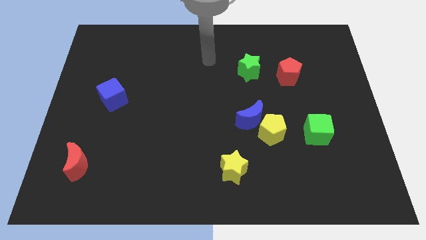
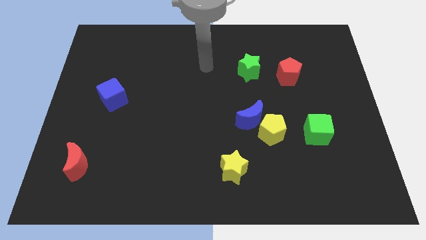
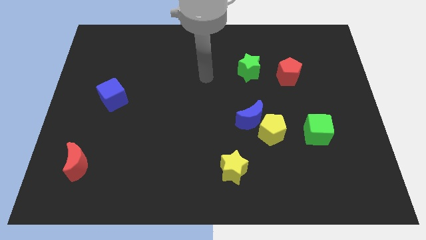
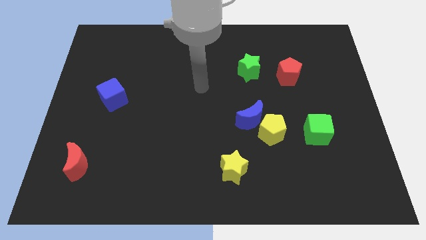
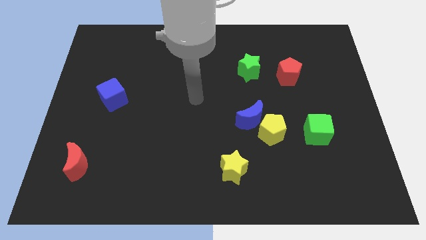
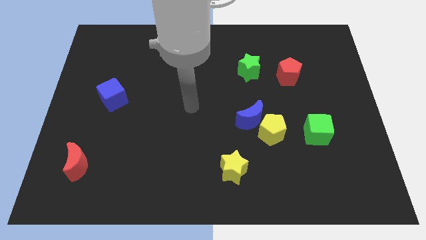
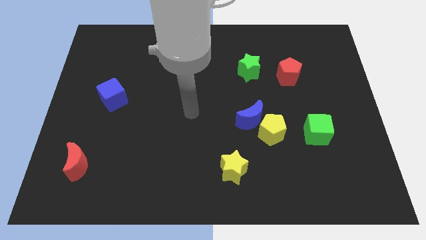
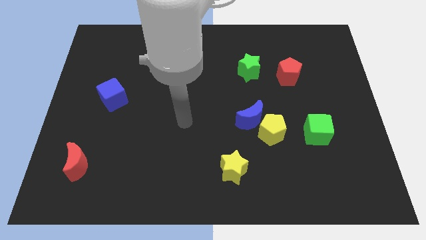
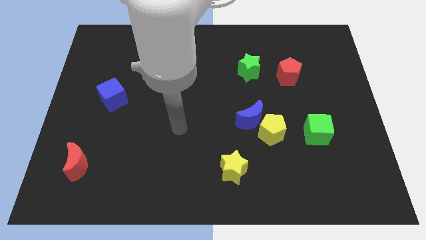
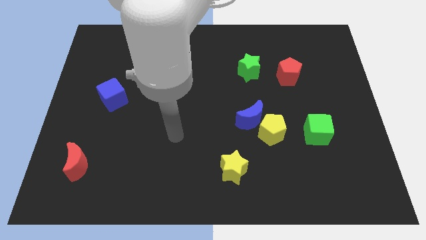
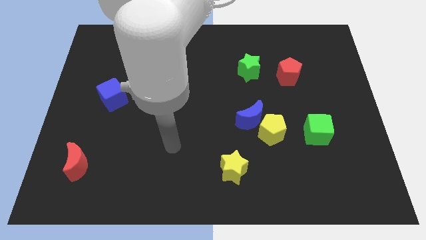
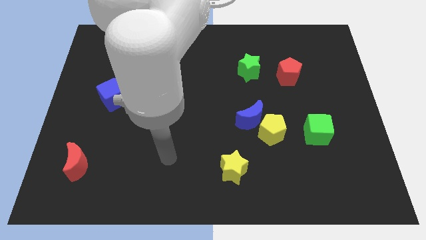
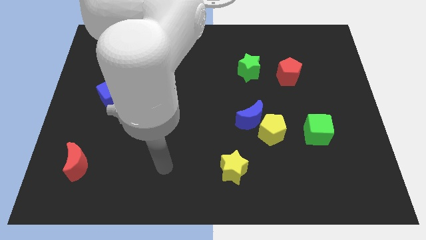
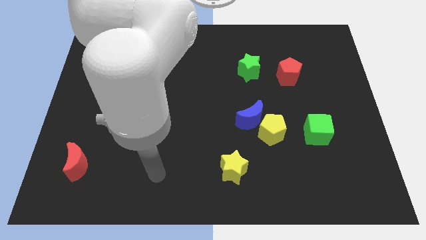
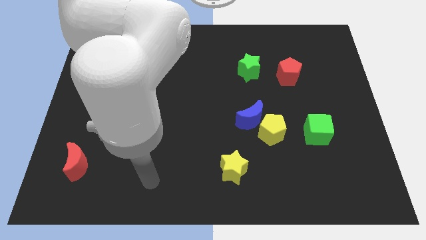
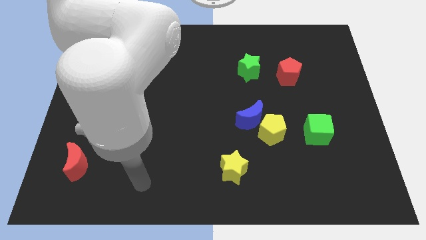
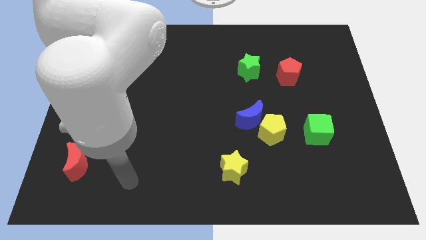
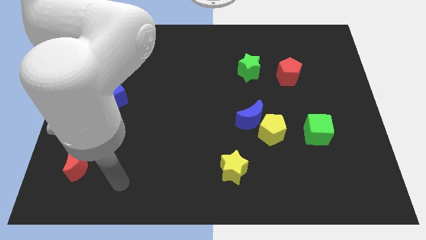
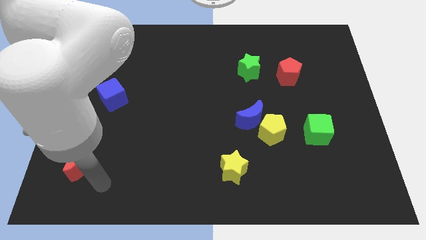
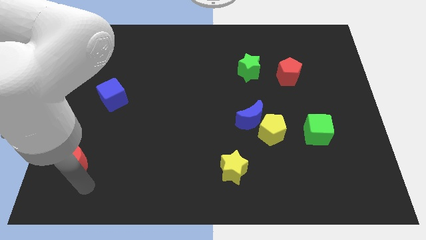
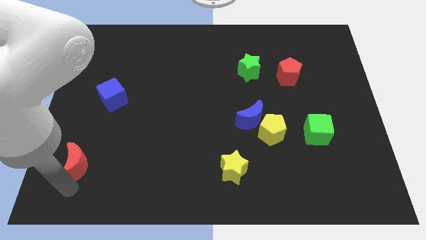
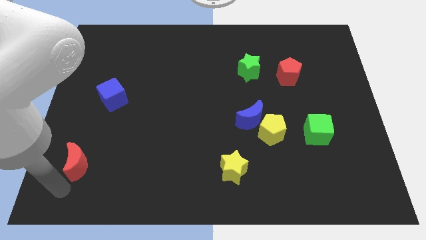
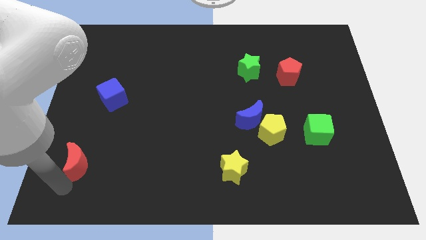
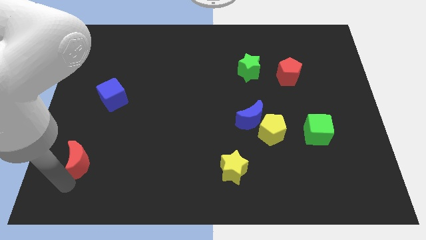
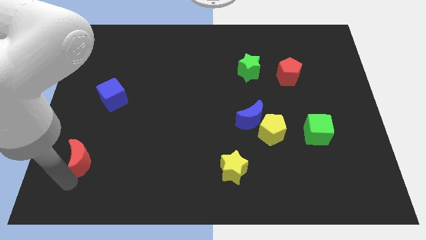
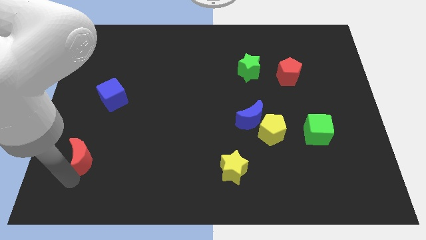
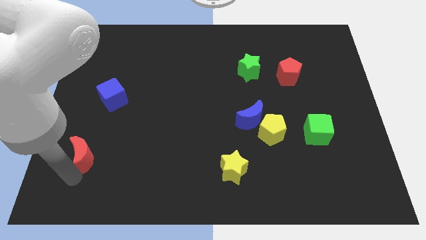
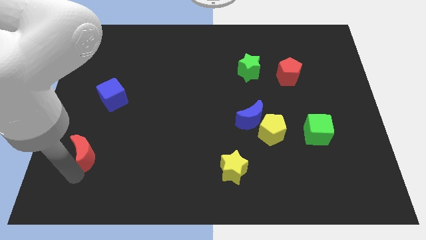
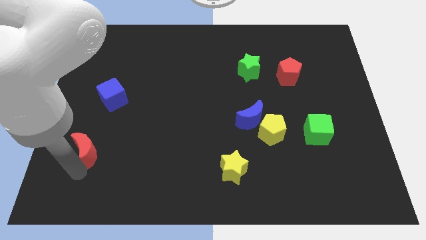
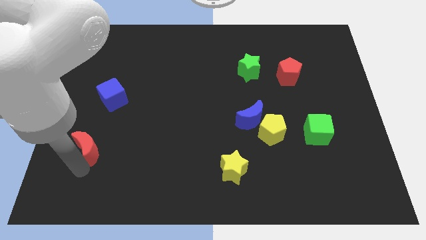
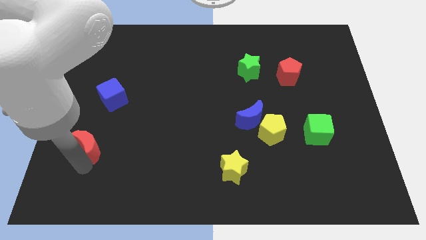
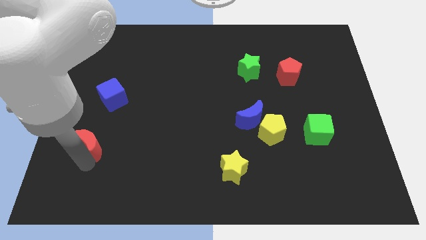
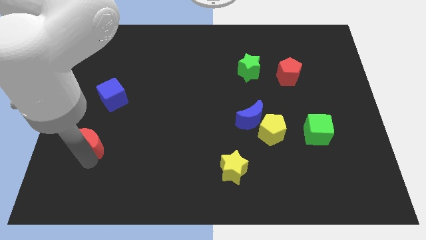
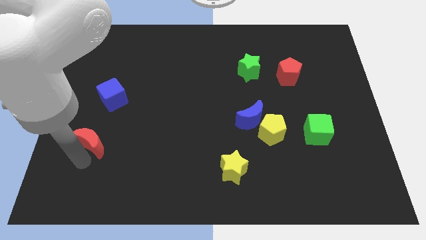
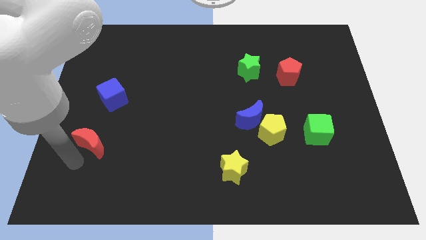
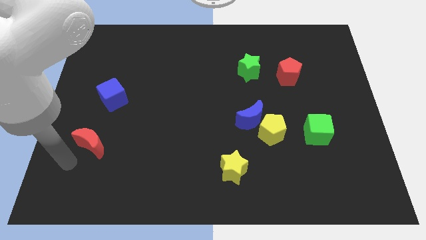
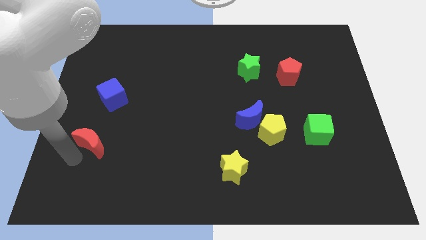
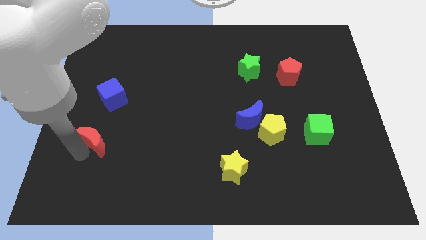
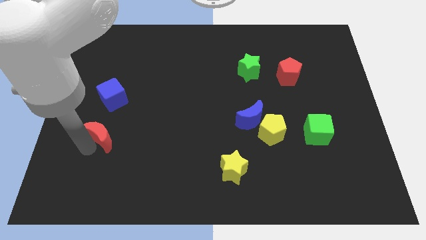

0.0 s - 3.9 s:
push the red moon slightly up and to the right diagonally

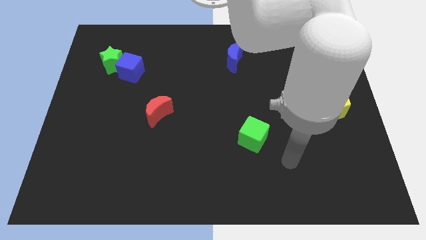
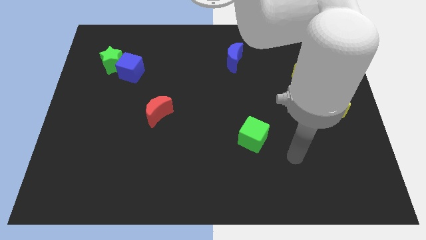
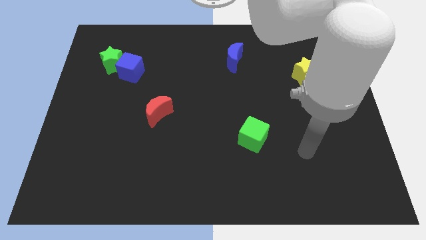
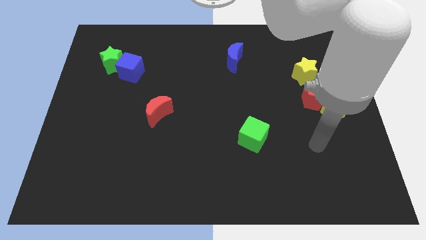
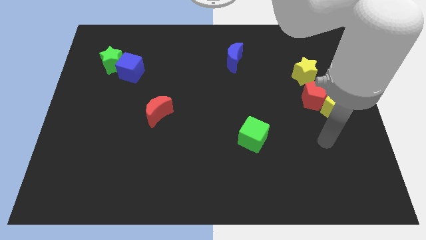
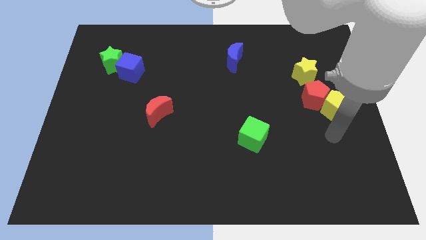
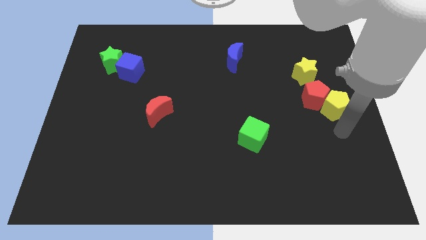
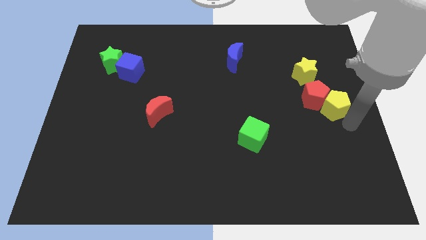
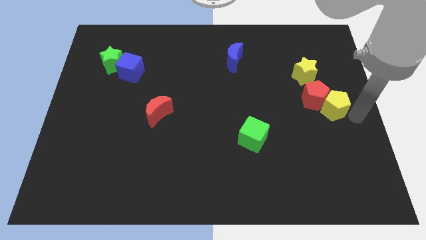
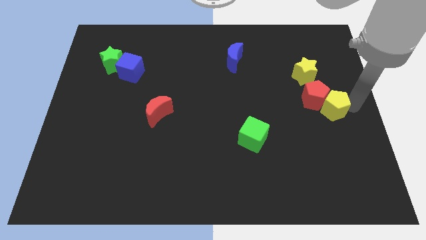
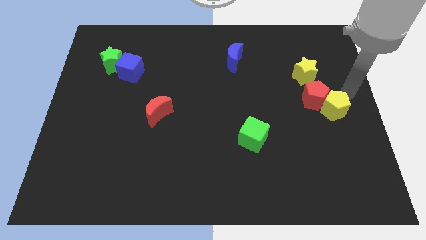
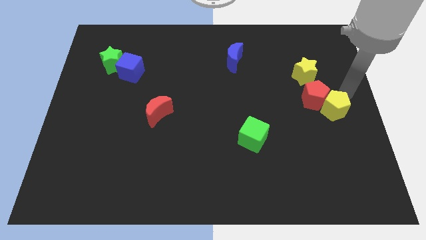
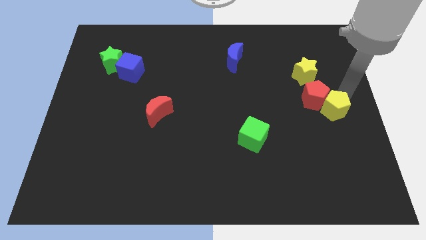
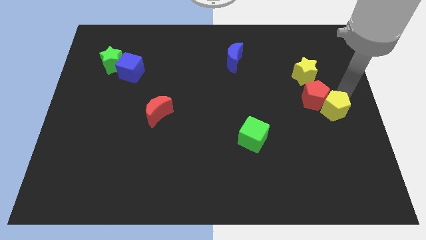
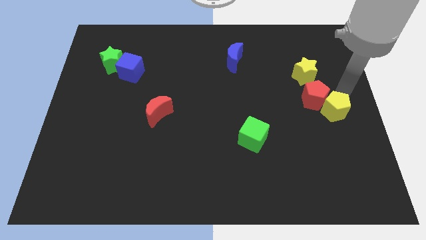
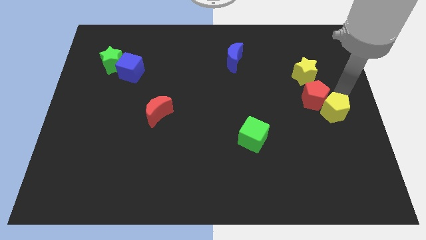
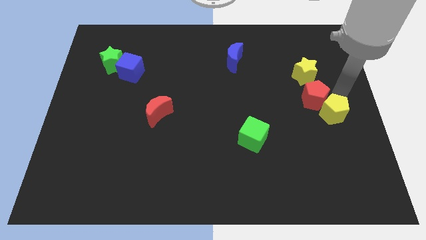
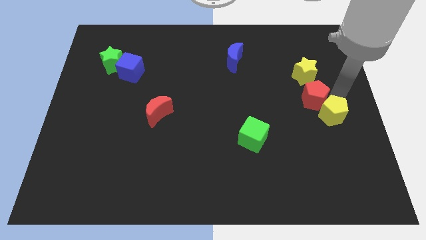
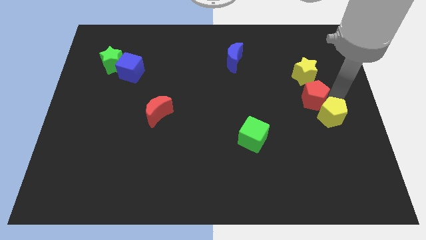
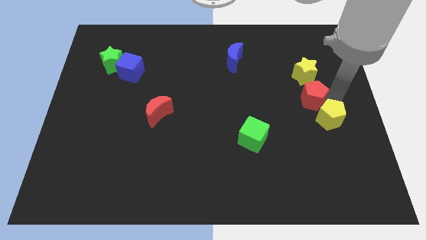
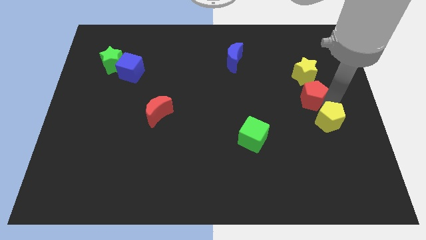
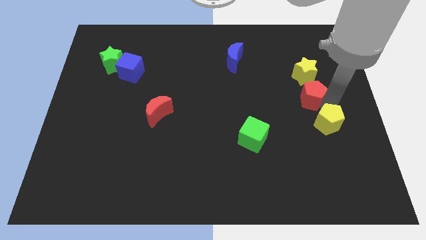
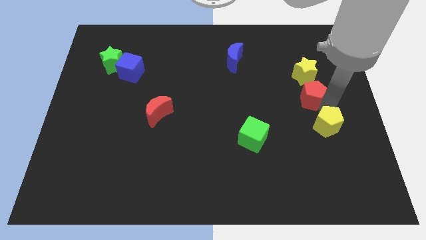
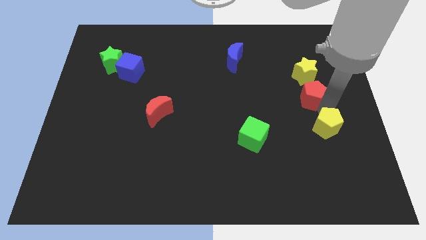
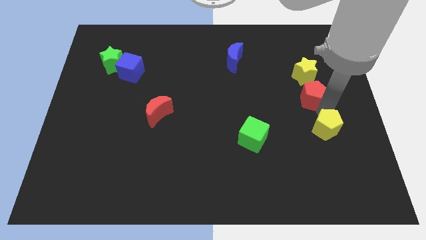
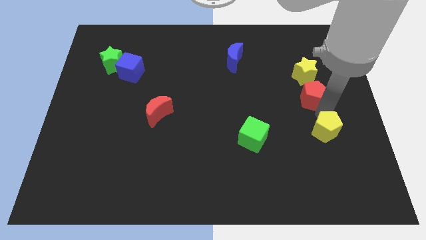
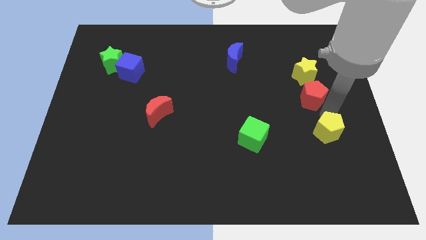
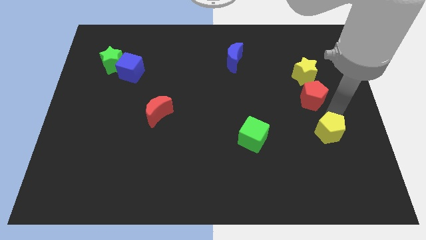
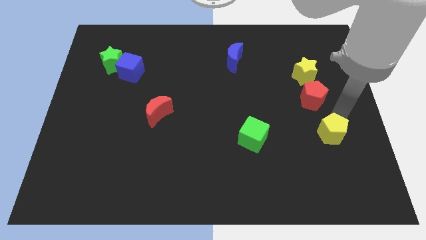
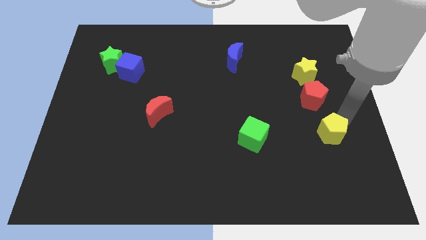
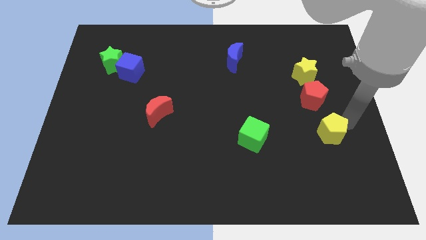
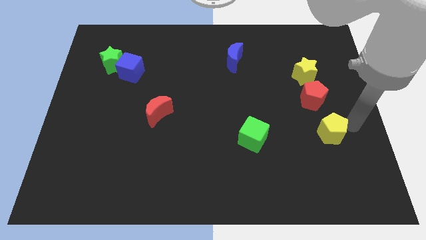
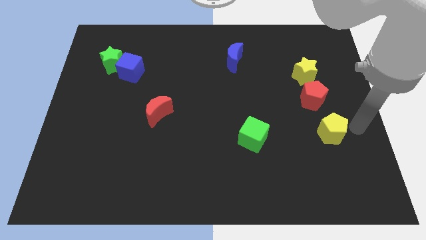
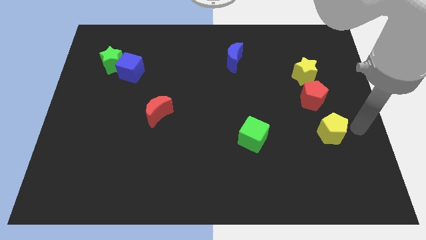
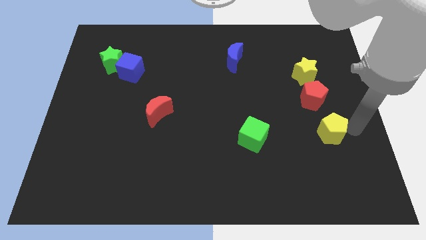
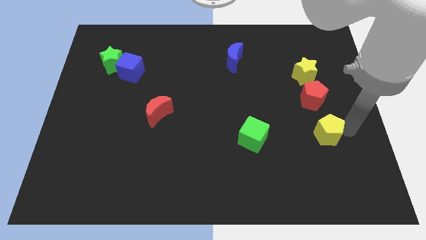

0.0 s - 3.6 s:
slightly push the yellow pentagon diagonally downwards and to the left

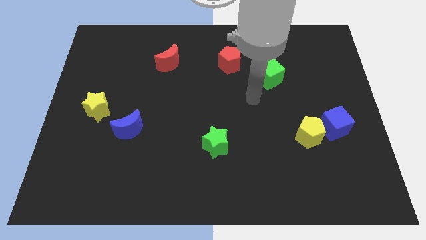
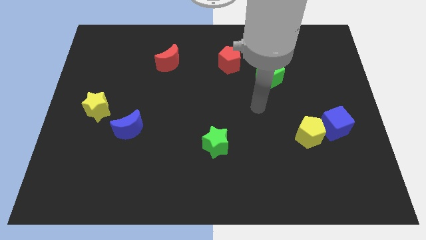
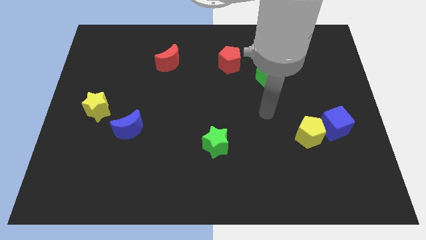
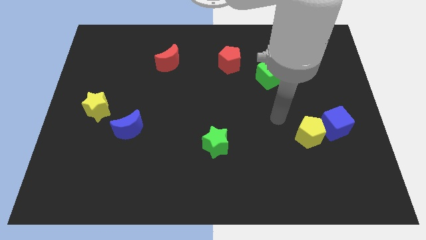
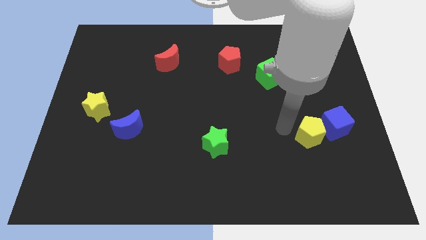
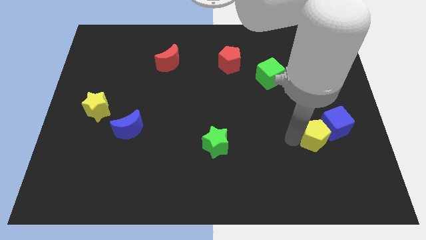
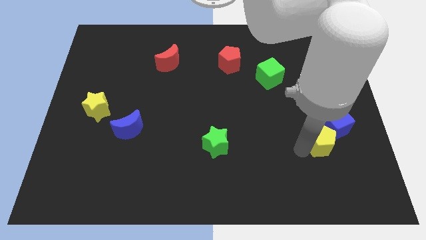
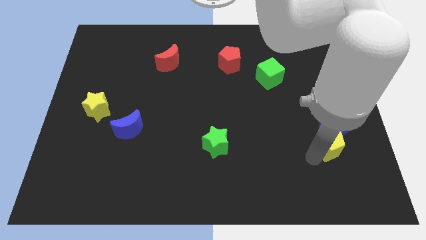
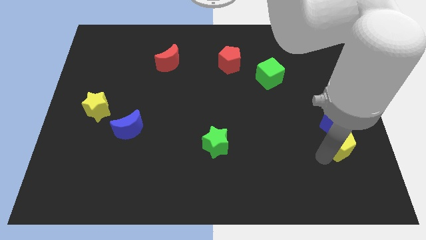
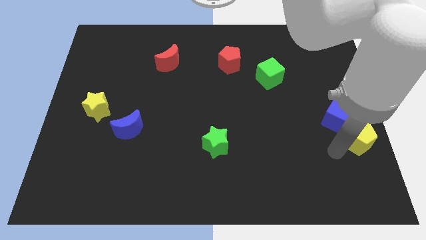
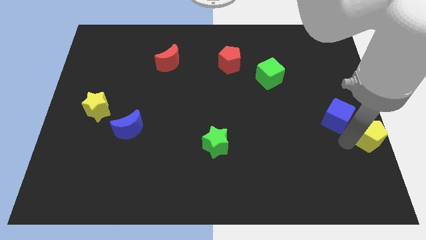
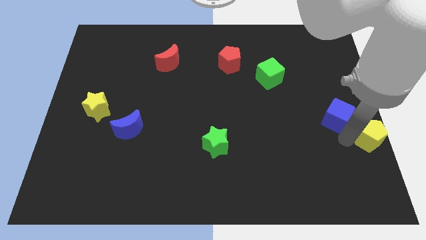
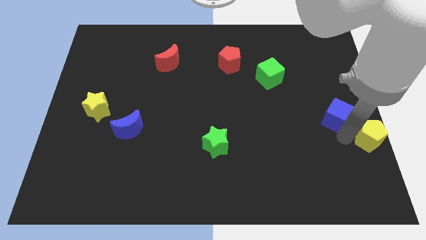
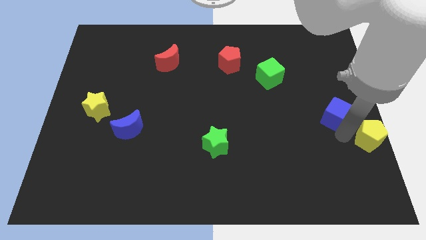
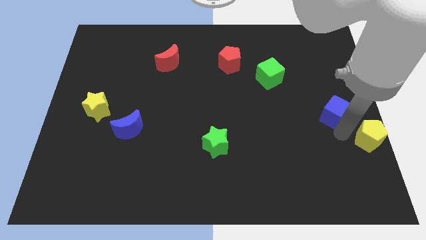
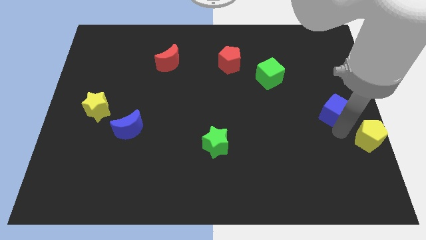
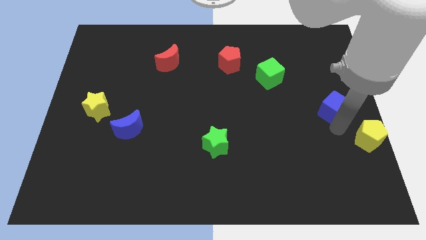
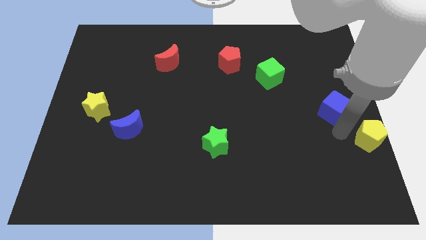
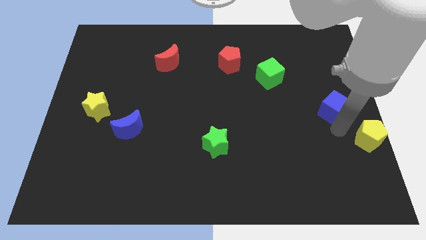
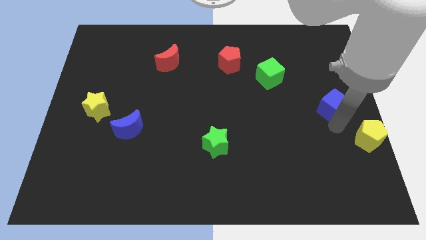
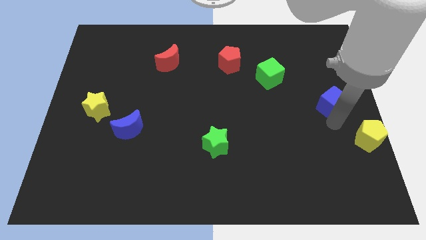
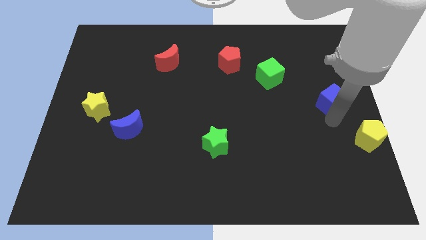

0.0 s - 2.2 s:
move the blue cube up a little
